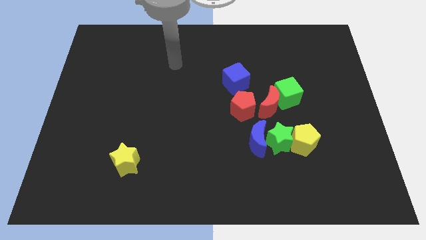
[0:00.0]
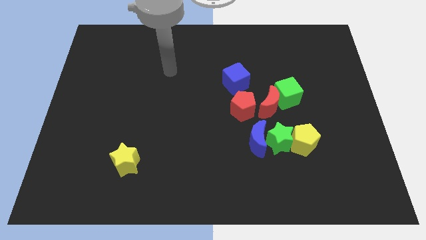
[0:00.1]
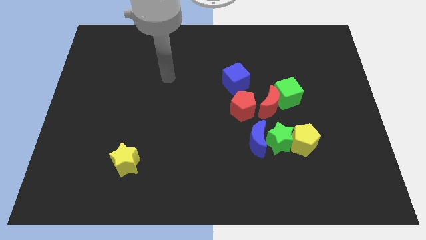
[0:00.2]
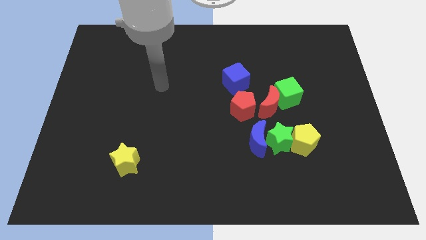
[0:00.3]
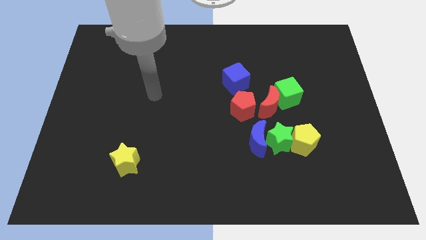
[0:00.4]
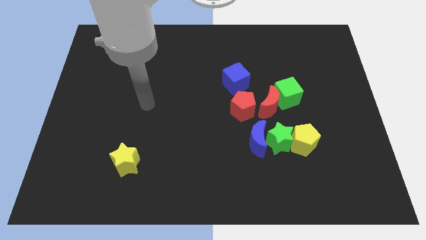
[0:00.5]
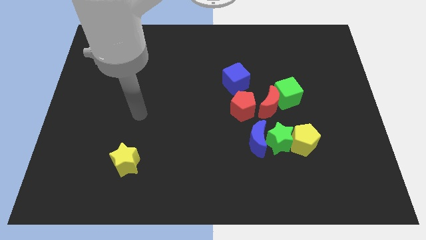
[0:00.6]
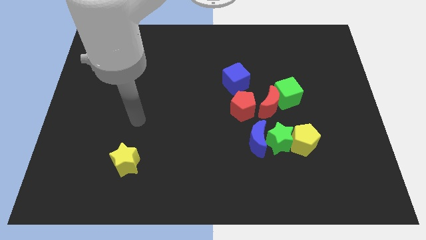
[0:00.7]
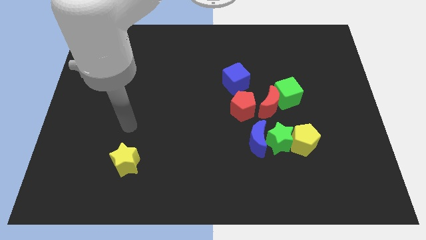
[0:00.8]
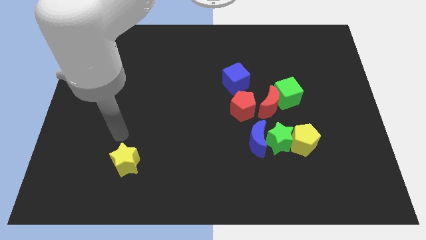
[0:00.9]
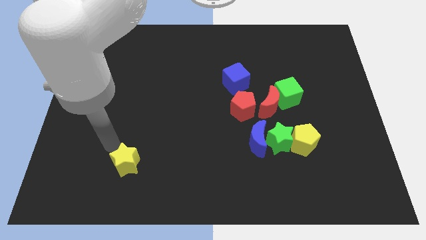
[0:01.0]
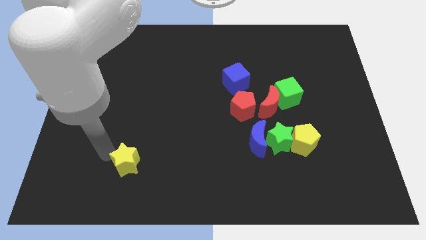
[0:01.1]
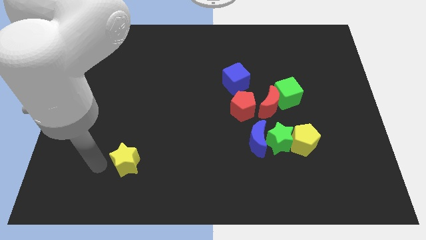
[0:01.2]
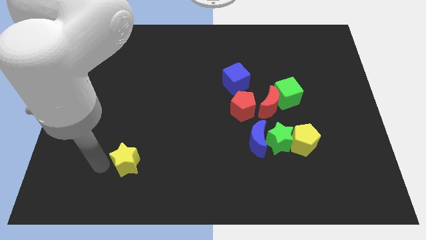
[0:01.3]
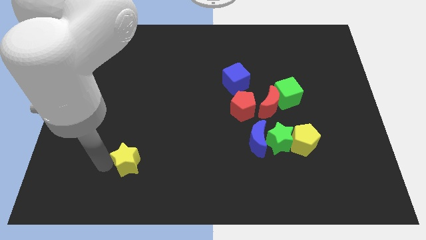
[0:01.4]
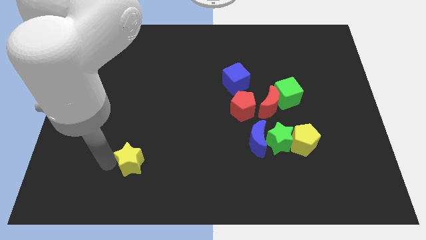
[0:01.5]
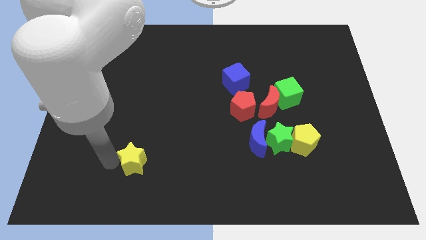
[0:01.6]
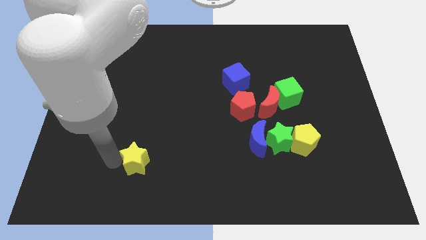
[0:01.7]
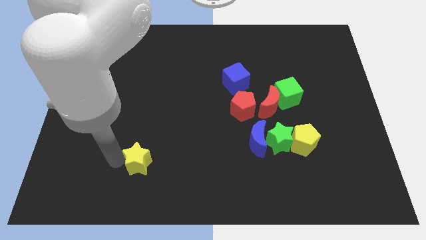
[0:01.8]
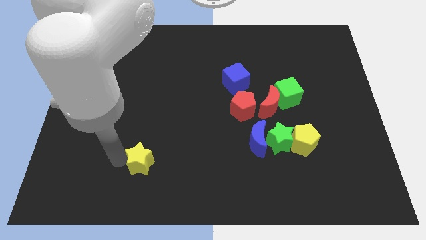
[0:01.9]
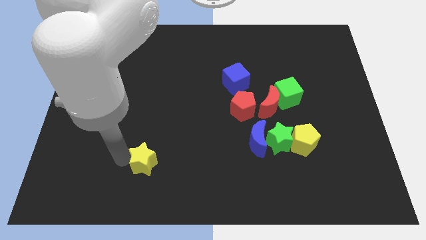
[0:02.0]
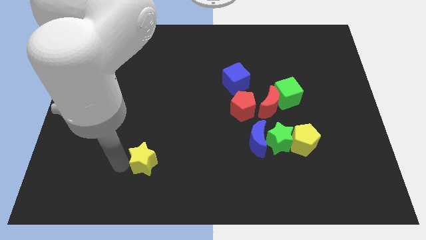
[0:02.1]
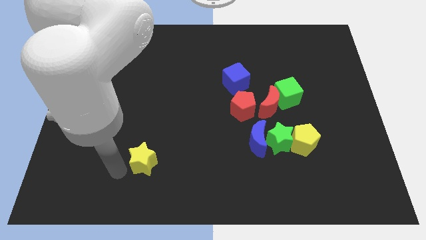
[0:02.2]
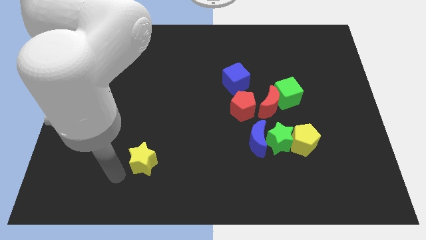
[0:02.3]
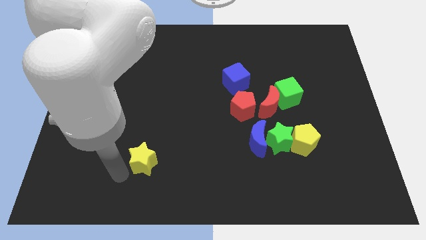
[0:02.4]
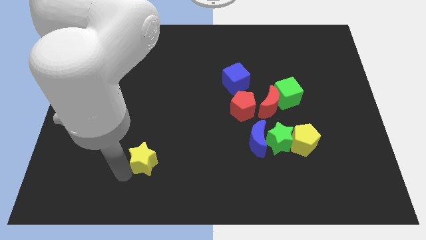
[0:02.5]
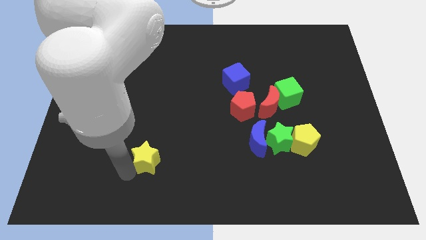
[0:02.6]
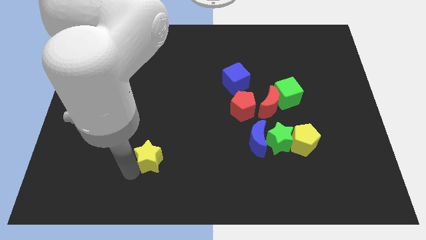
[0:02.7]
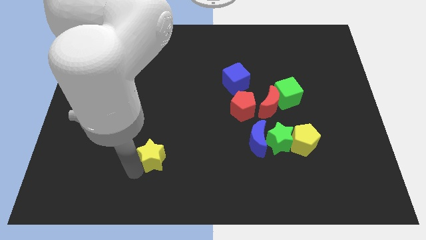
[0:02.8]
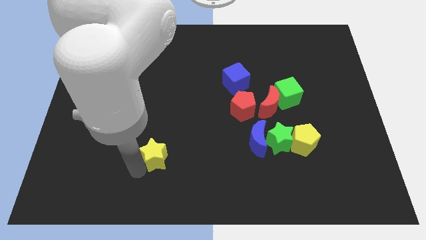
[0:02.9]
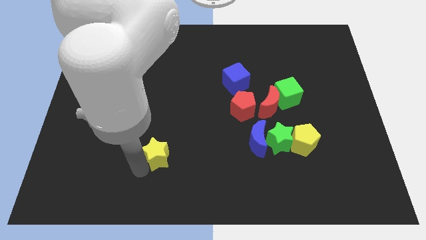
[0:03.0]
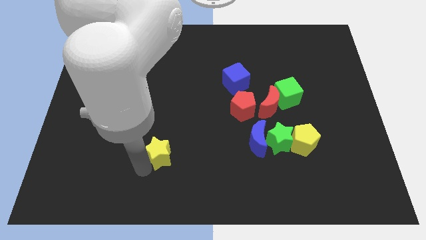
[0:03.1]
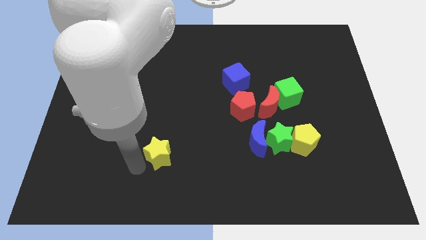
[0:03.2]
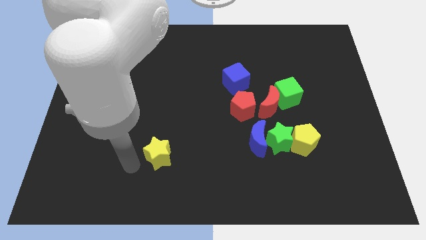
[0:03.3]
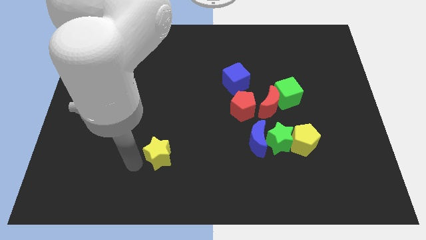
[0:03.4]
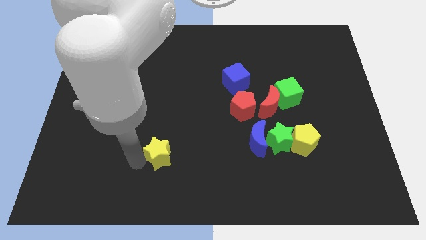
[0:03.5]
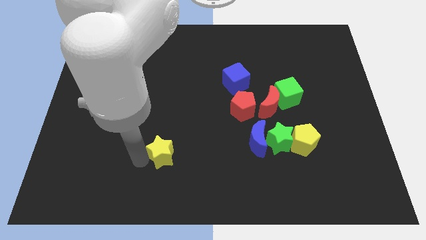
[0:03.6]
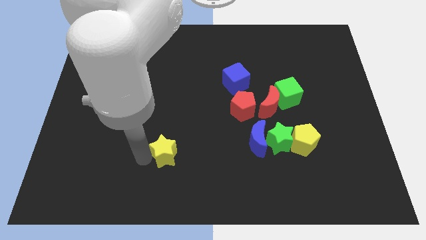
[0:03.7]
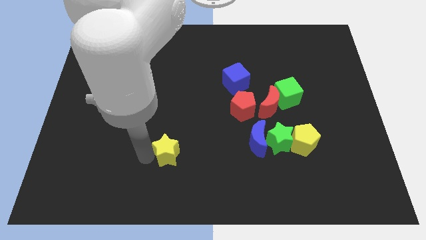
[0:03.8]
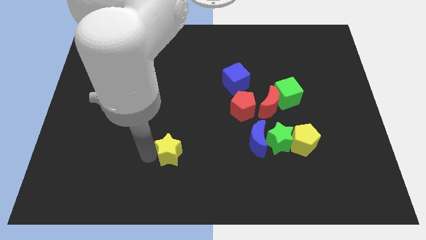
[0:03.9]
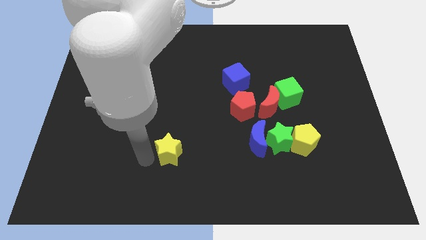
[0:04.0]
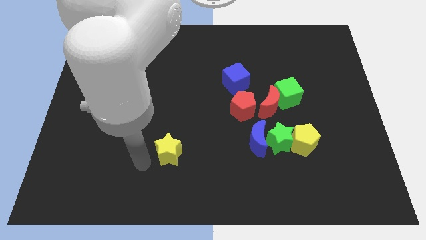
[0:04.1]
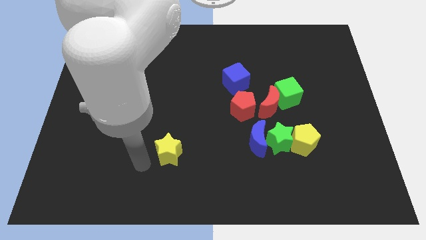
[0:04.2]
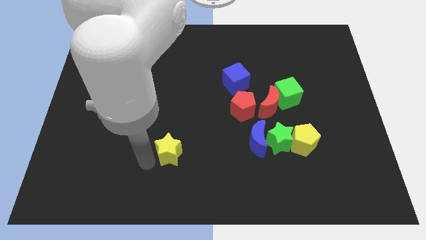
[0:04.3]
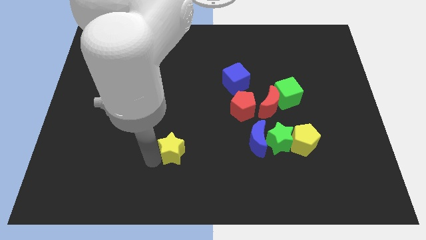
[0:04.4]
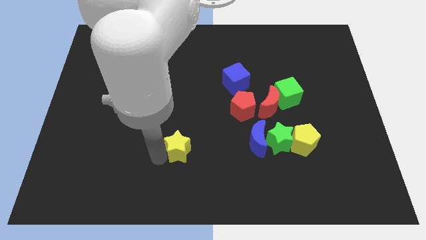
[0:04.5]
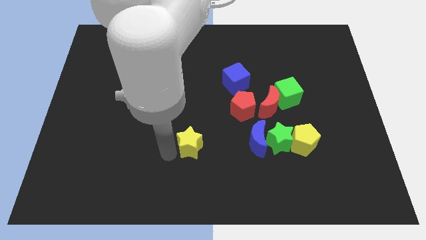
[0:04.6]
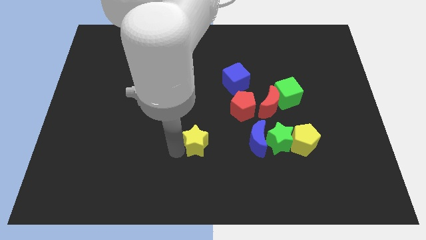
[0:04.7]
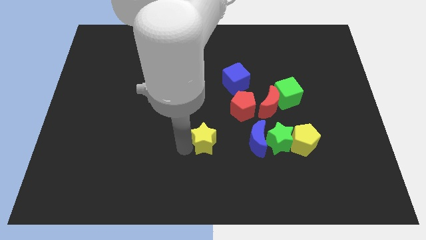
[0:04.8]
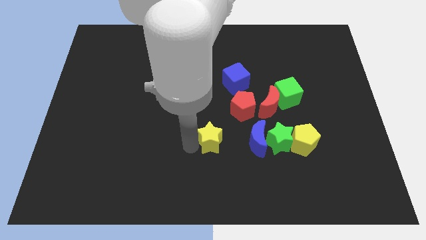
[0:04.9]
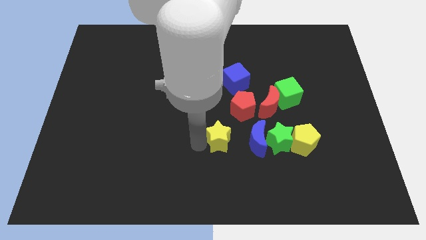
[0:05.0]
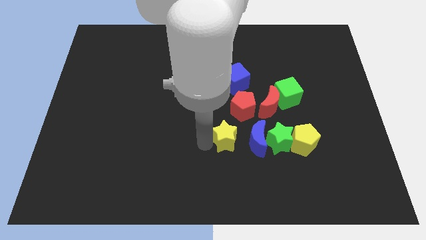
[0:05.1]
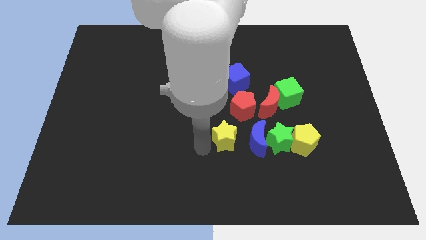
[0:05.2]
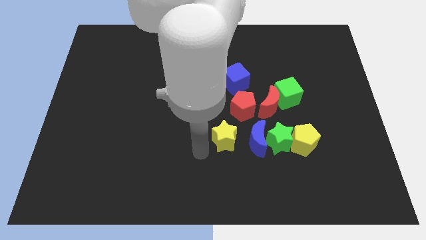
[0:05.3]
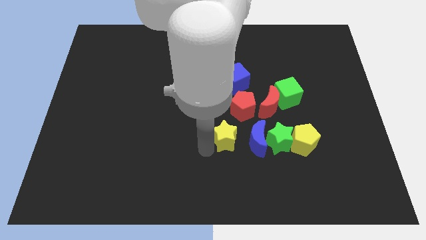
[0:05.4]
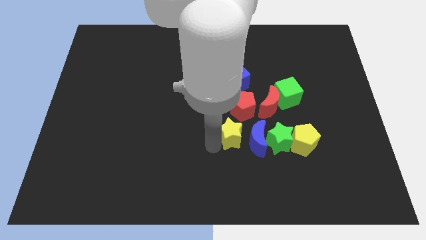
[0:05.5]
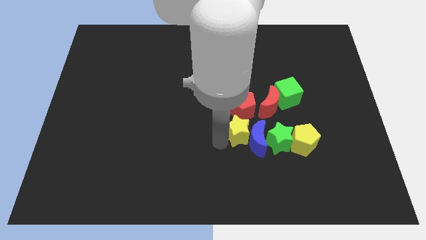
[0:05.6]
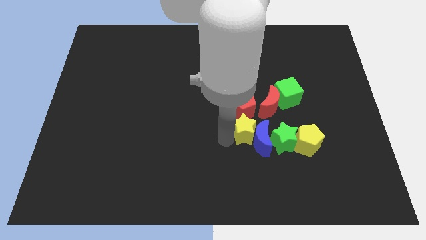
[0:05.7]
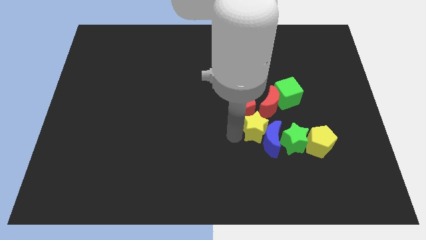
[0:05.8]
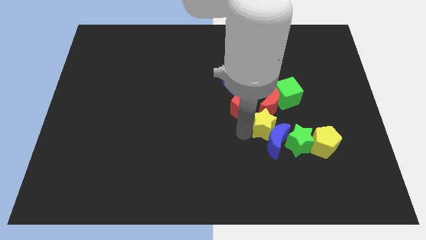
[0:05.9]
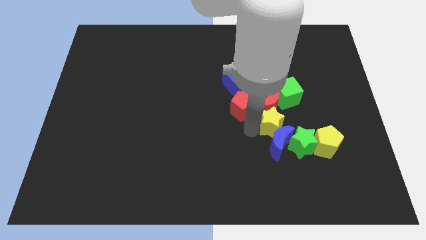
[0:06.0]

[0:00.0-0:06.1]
slide the yellow star to the top right side of the blue moon

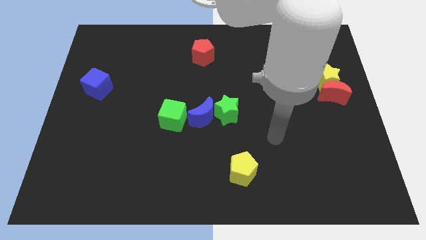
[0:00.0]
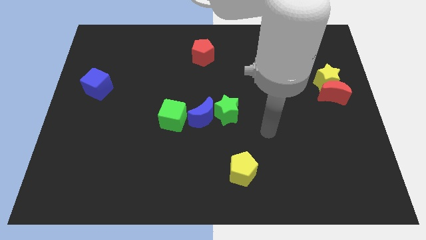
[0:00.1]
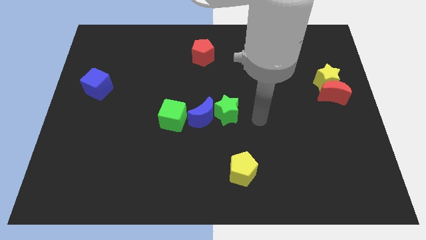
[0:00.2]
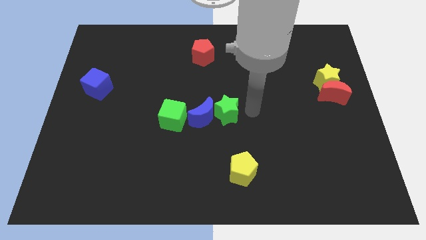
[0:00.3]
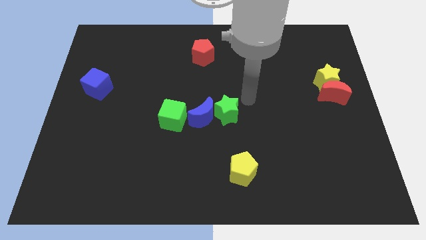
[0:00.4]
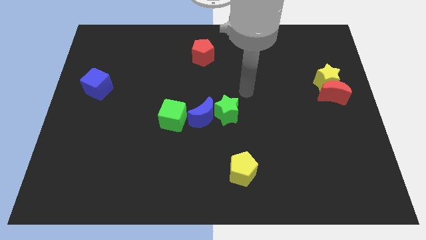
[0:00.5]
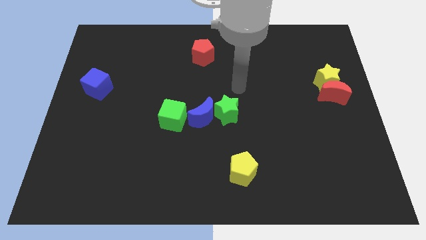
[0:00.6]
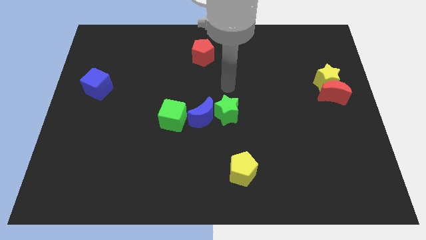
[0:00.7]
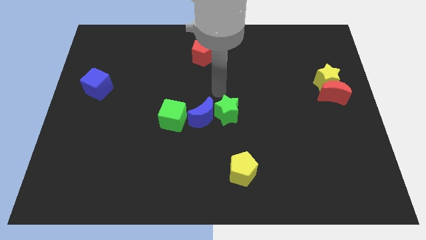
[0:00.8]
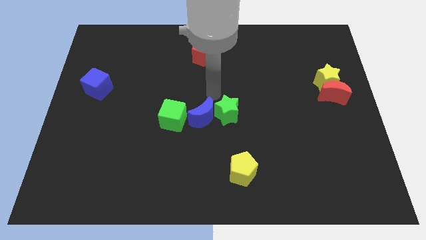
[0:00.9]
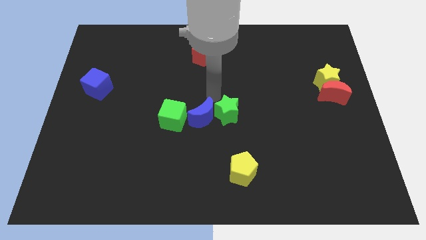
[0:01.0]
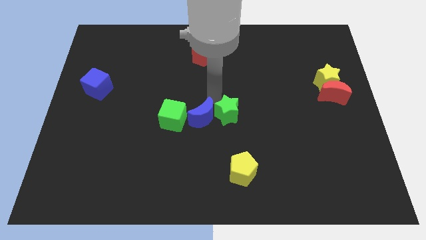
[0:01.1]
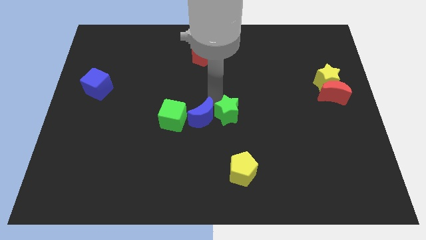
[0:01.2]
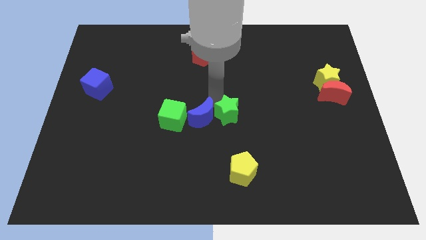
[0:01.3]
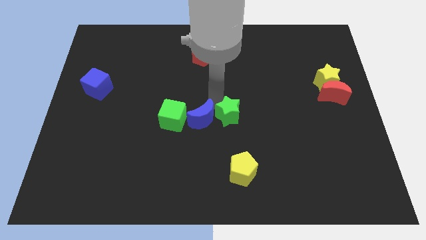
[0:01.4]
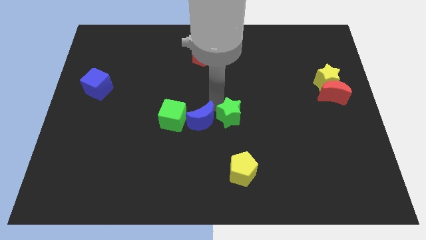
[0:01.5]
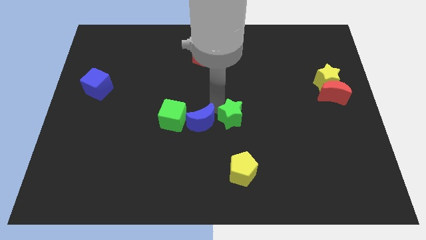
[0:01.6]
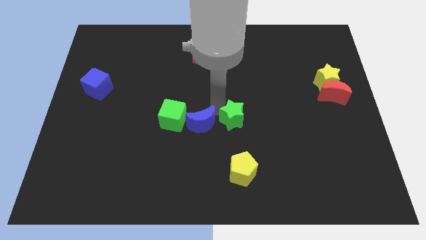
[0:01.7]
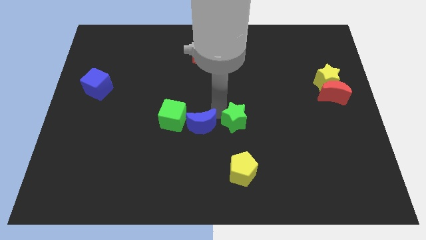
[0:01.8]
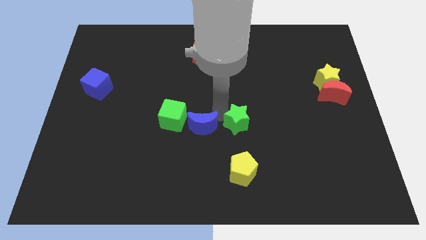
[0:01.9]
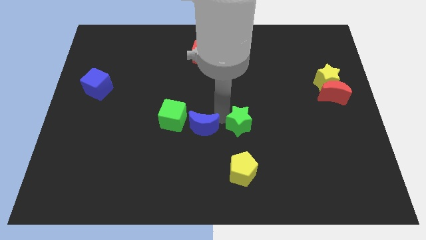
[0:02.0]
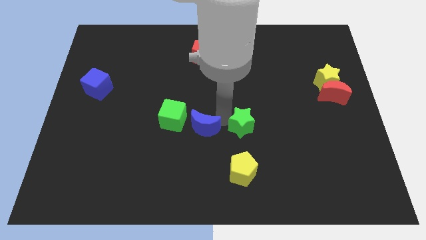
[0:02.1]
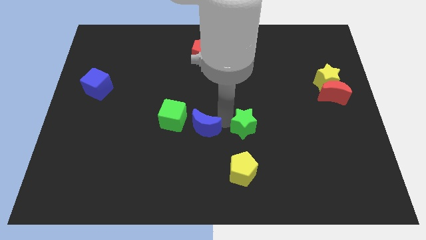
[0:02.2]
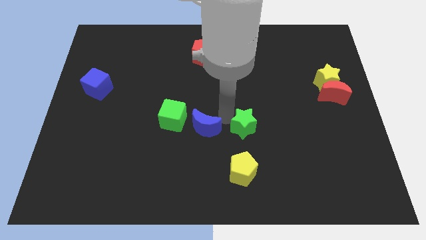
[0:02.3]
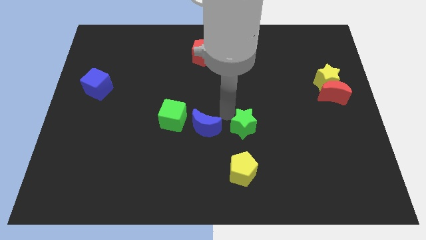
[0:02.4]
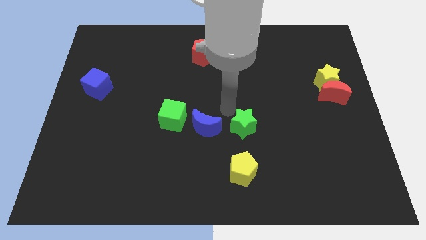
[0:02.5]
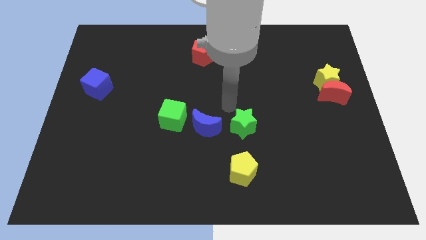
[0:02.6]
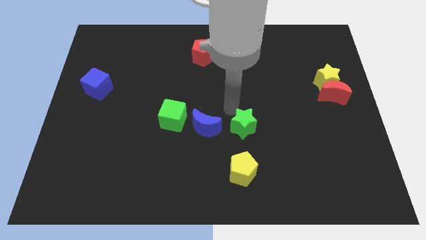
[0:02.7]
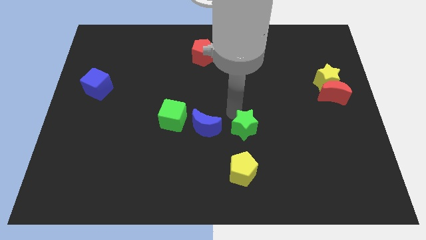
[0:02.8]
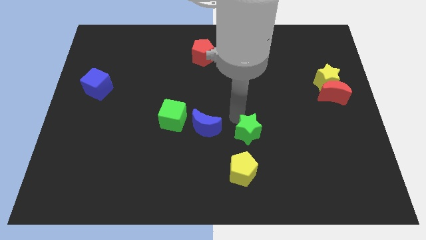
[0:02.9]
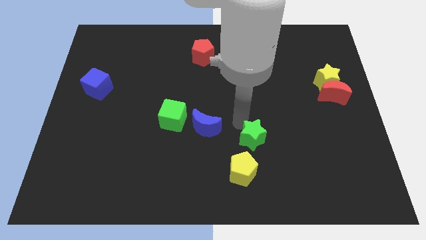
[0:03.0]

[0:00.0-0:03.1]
slide the green star to the top right side of the yellow pentagon
